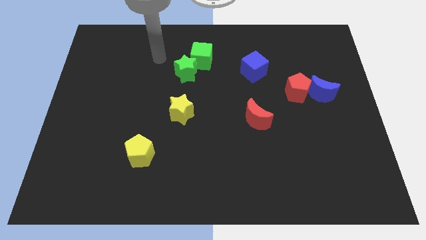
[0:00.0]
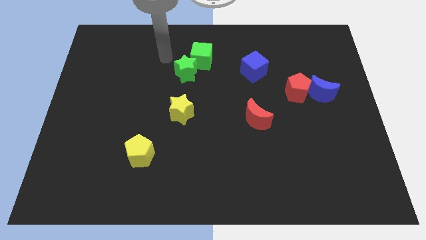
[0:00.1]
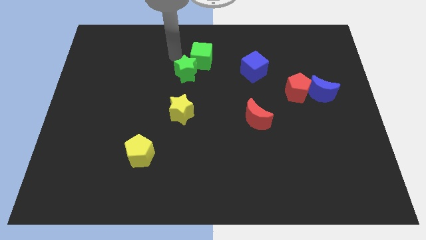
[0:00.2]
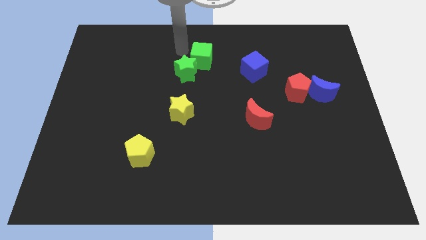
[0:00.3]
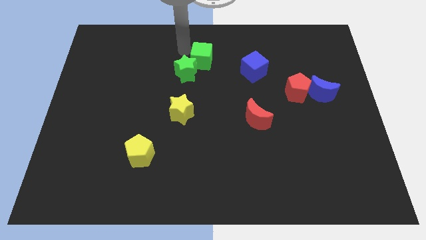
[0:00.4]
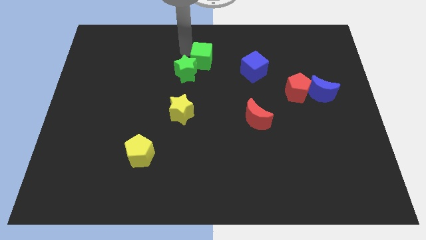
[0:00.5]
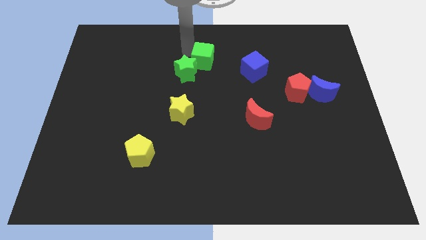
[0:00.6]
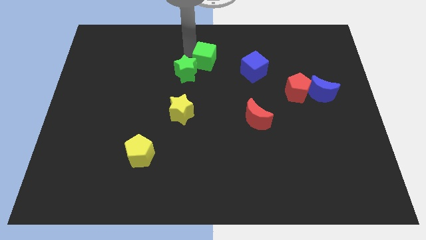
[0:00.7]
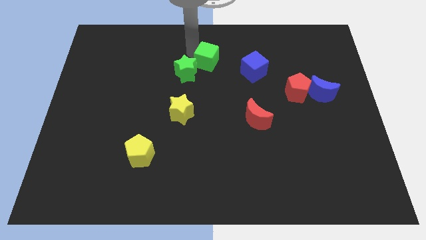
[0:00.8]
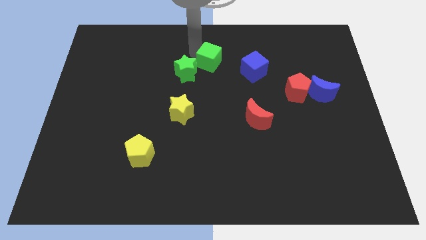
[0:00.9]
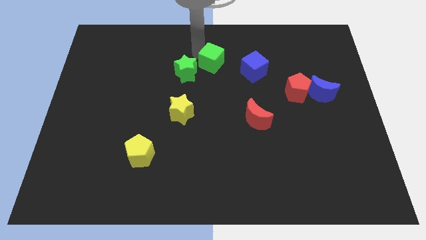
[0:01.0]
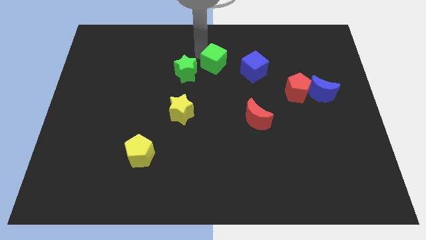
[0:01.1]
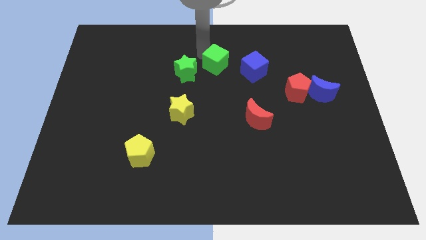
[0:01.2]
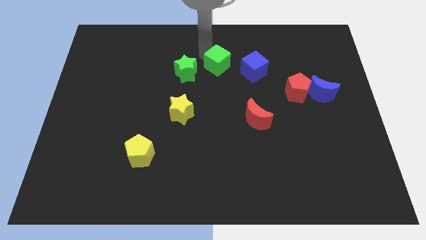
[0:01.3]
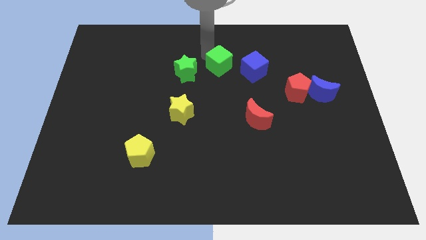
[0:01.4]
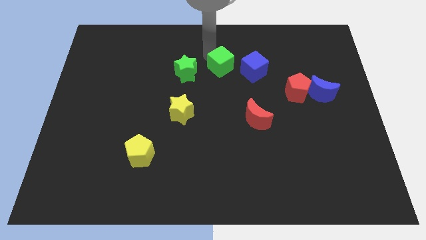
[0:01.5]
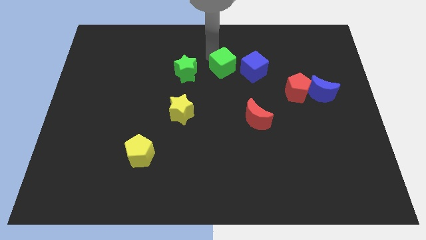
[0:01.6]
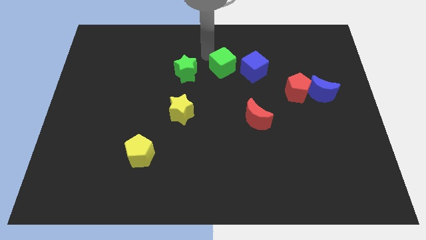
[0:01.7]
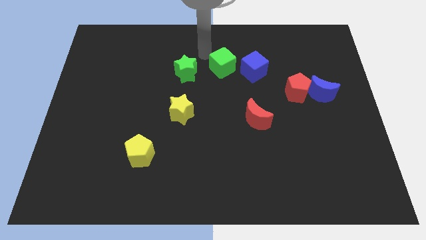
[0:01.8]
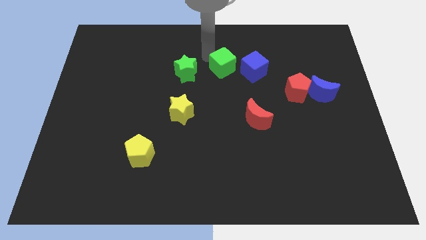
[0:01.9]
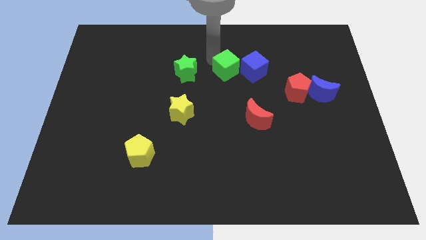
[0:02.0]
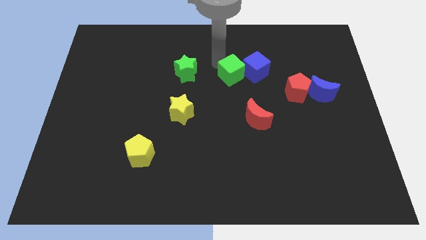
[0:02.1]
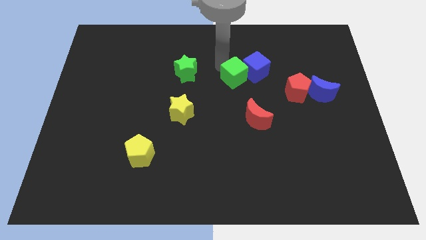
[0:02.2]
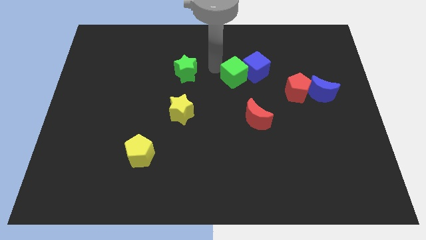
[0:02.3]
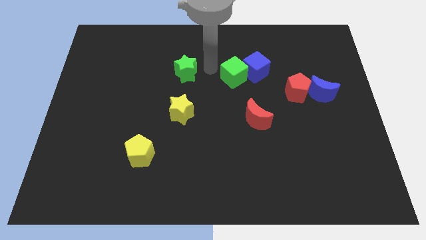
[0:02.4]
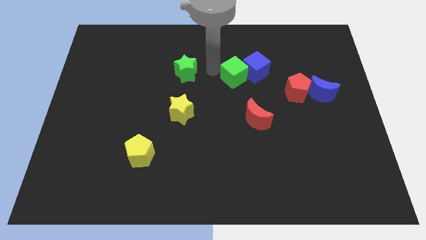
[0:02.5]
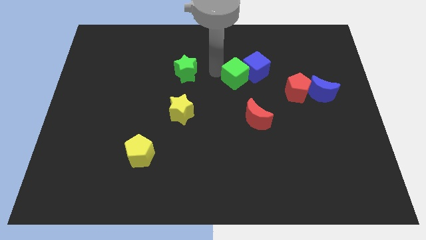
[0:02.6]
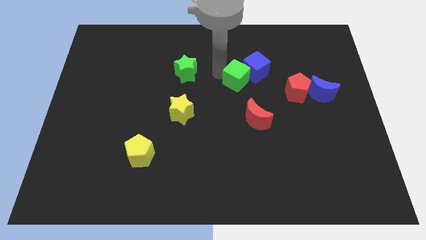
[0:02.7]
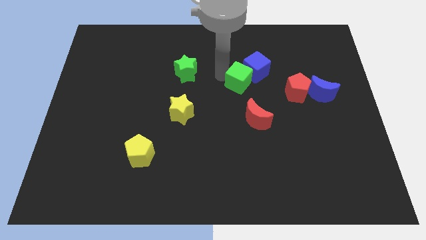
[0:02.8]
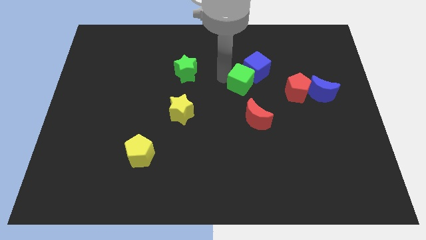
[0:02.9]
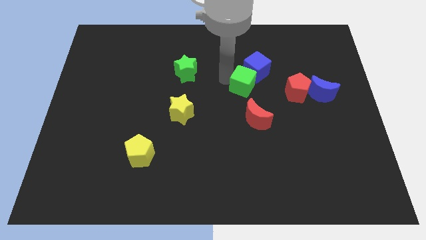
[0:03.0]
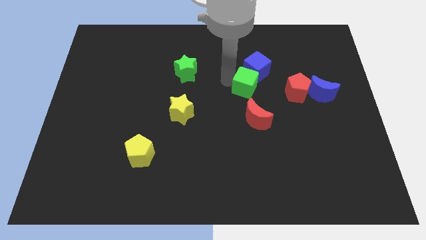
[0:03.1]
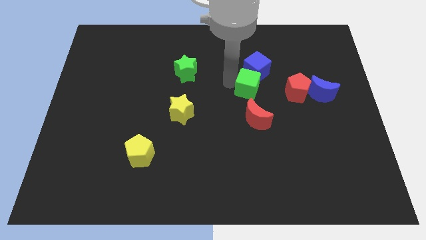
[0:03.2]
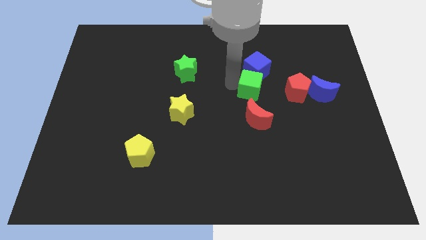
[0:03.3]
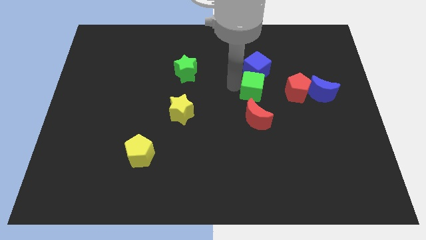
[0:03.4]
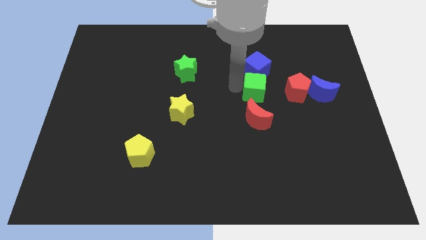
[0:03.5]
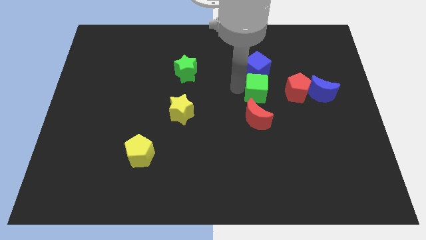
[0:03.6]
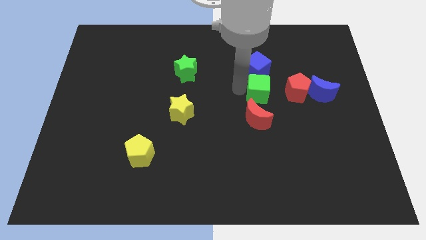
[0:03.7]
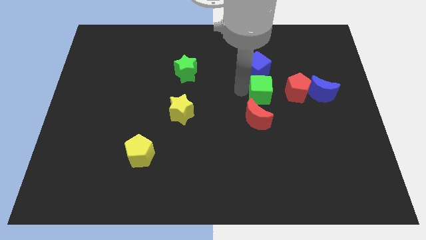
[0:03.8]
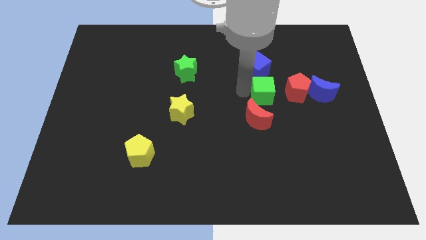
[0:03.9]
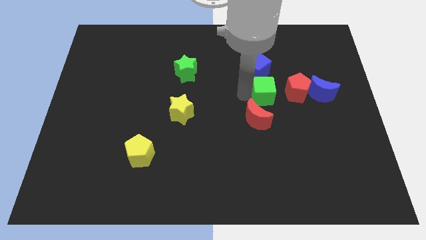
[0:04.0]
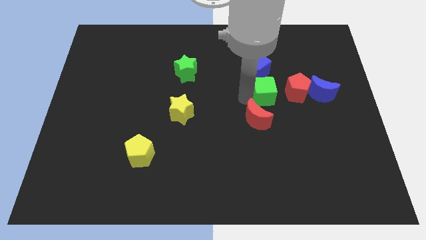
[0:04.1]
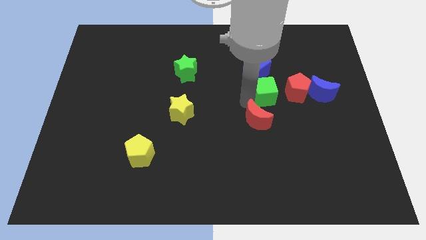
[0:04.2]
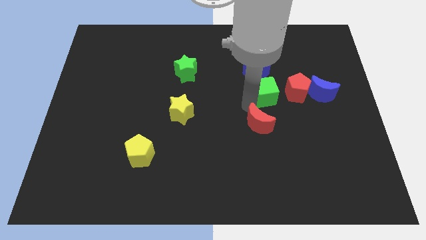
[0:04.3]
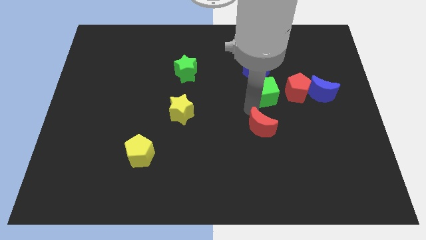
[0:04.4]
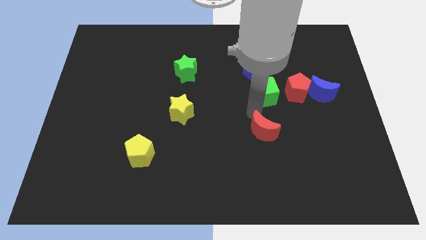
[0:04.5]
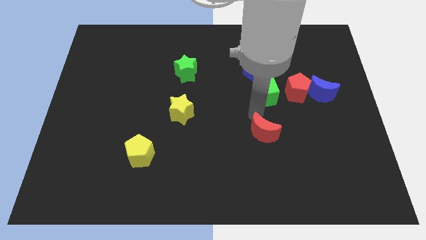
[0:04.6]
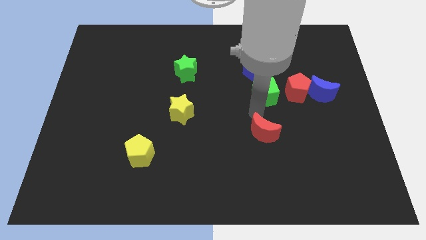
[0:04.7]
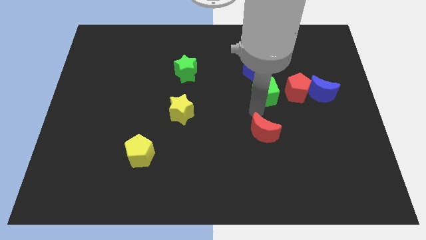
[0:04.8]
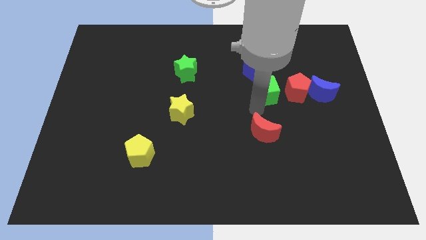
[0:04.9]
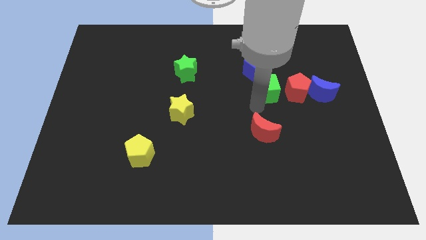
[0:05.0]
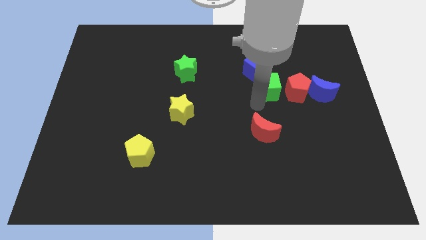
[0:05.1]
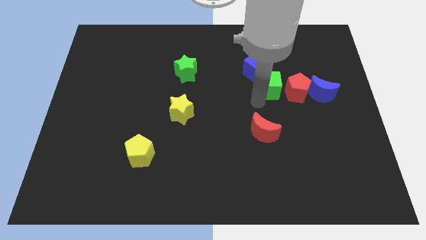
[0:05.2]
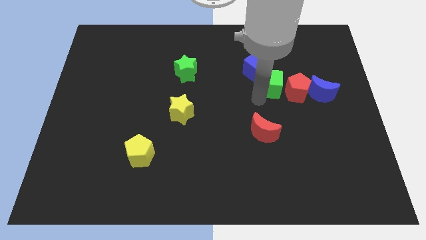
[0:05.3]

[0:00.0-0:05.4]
slide the green cube next to the red pentagon

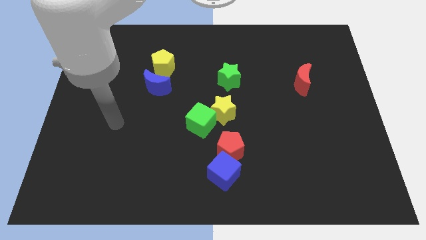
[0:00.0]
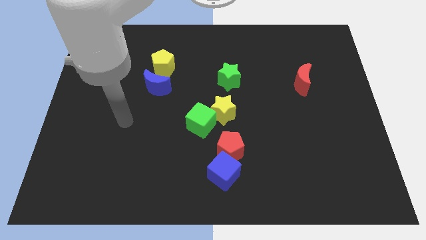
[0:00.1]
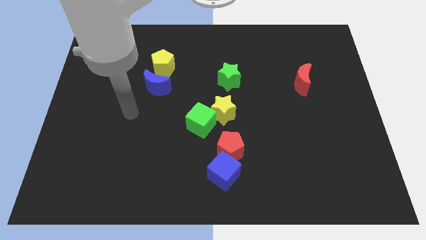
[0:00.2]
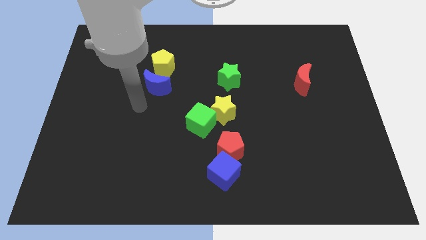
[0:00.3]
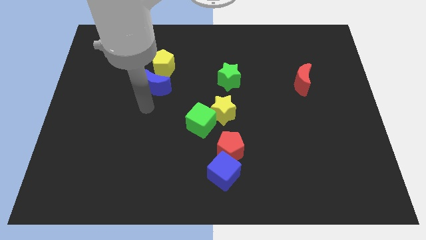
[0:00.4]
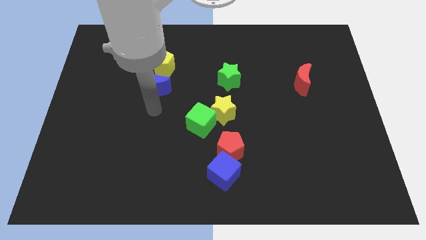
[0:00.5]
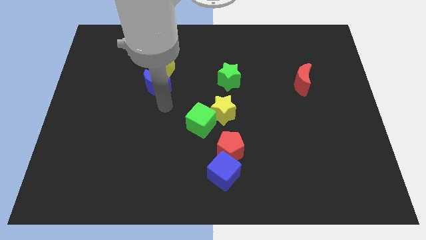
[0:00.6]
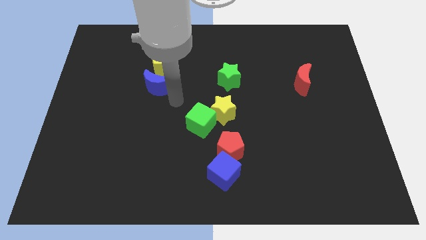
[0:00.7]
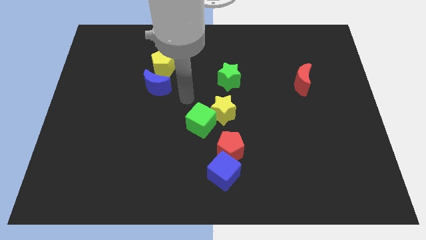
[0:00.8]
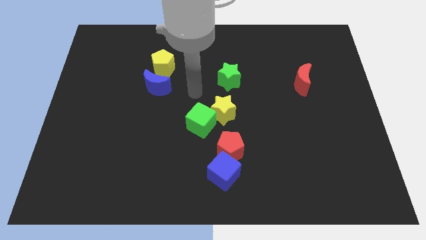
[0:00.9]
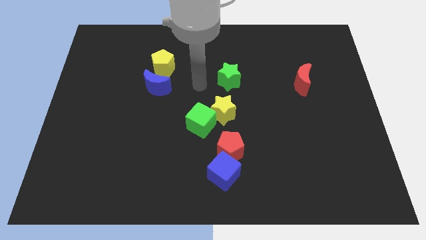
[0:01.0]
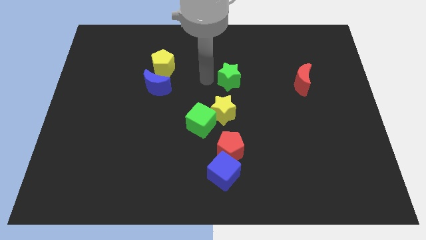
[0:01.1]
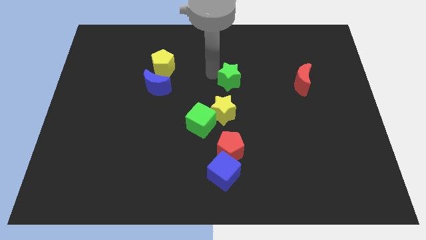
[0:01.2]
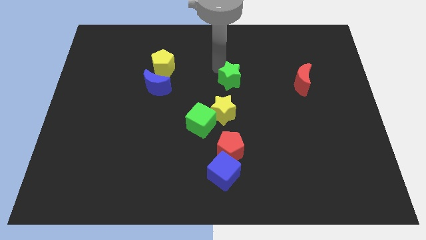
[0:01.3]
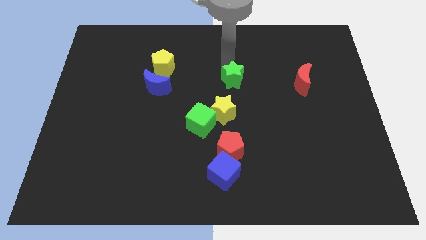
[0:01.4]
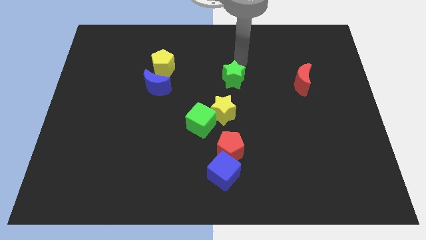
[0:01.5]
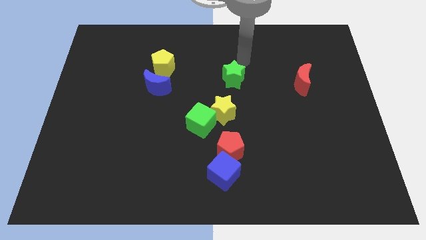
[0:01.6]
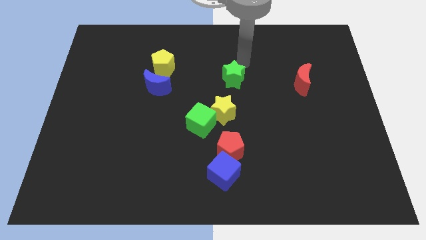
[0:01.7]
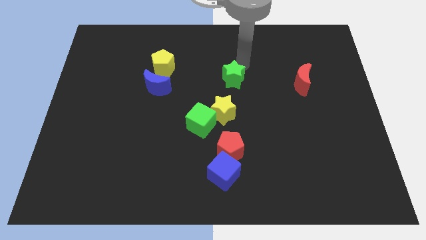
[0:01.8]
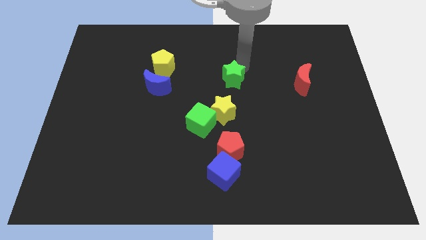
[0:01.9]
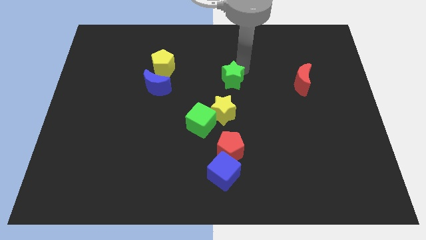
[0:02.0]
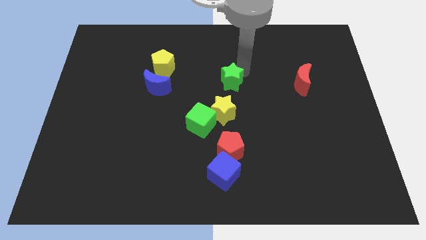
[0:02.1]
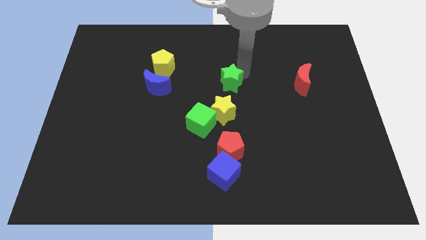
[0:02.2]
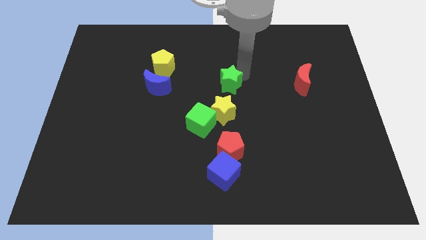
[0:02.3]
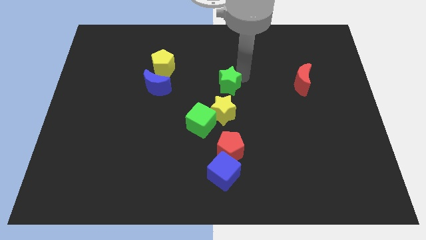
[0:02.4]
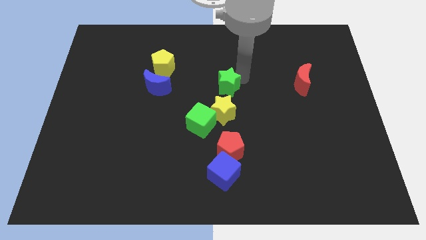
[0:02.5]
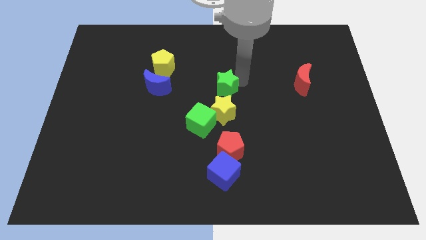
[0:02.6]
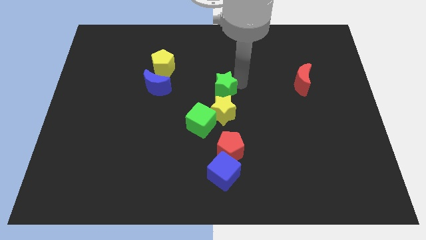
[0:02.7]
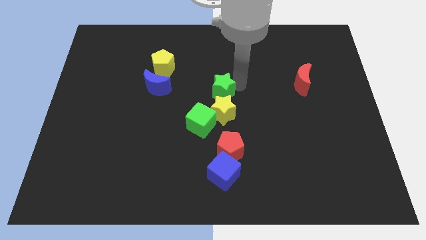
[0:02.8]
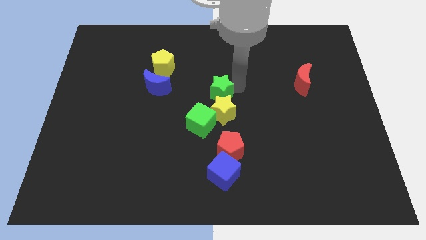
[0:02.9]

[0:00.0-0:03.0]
push the green star close to the yellow star
